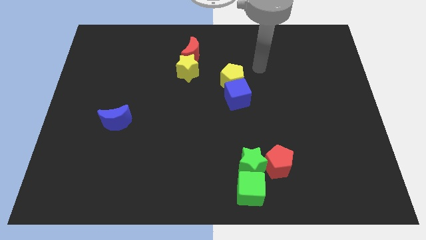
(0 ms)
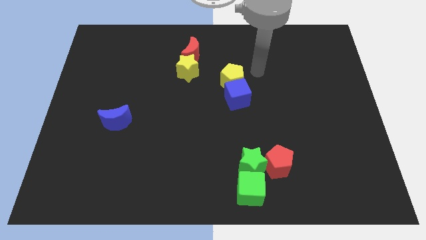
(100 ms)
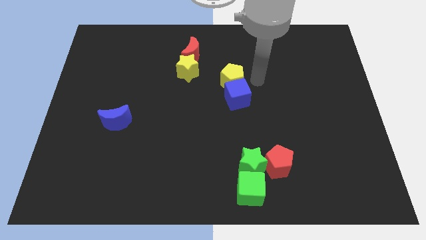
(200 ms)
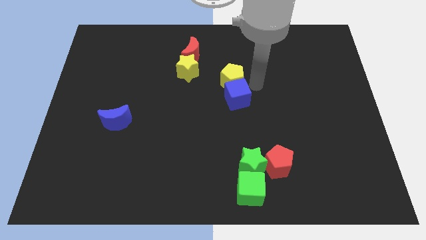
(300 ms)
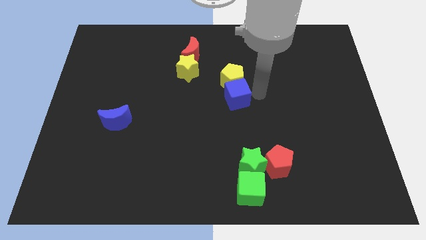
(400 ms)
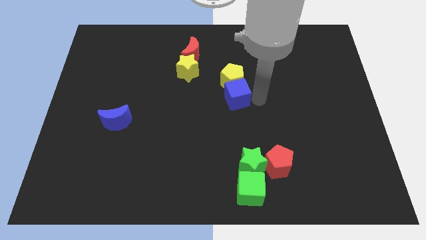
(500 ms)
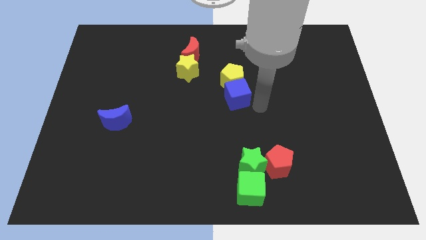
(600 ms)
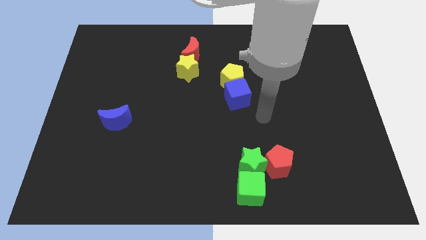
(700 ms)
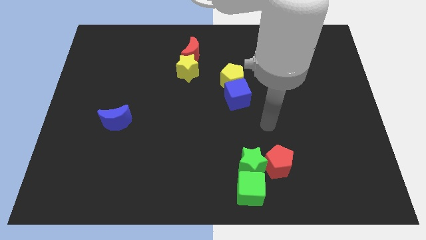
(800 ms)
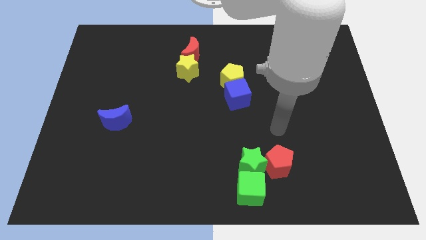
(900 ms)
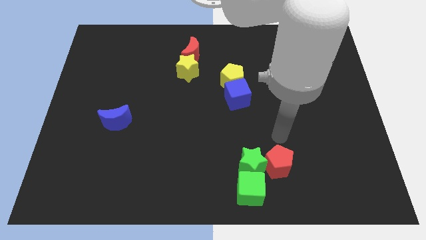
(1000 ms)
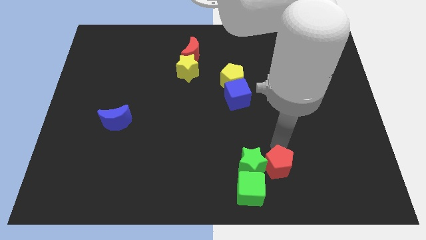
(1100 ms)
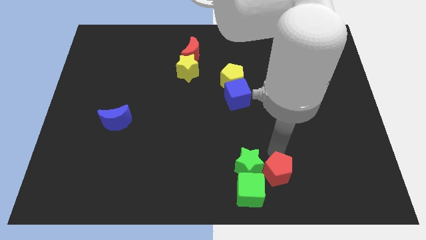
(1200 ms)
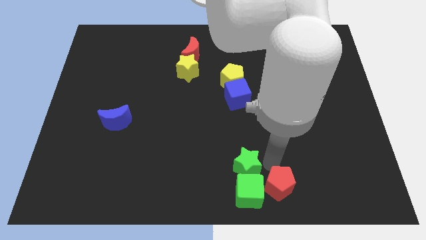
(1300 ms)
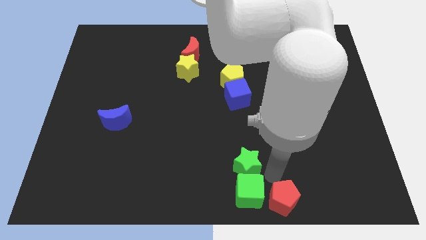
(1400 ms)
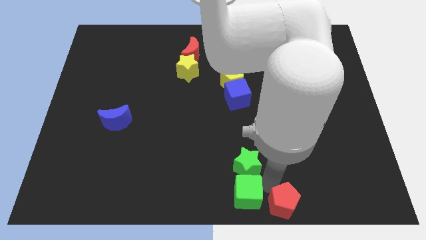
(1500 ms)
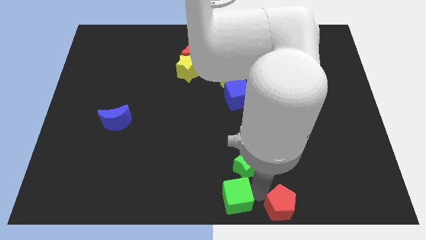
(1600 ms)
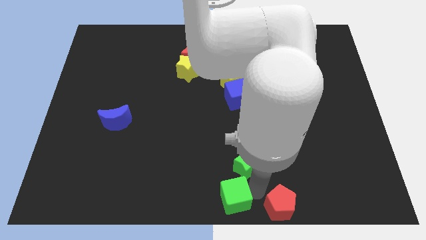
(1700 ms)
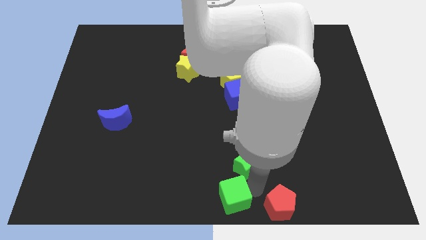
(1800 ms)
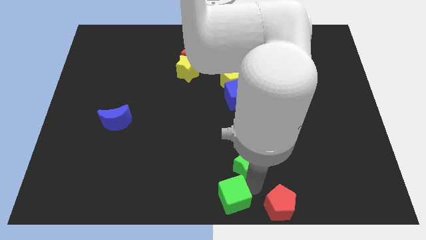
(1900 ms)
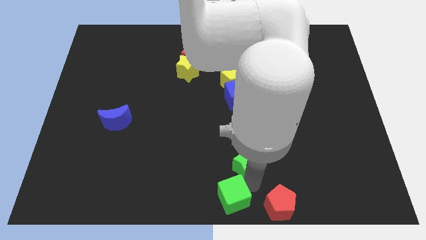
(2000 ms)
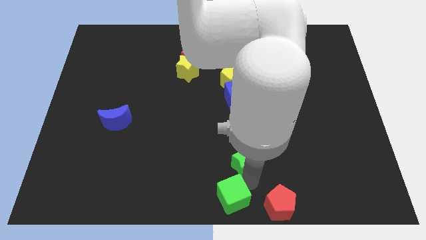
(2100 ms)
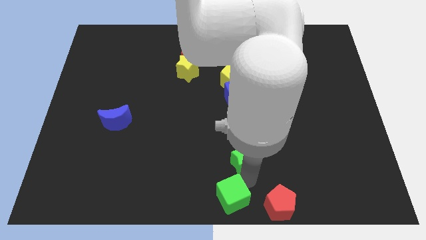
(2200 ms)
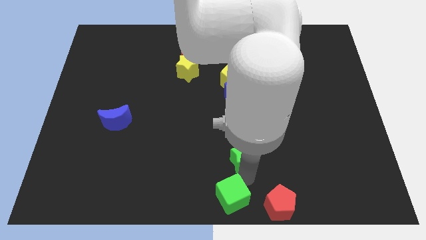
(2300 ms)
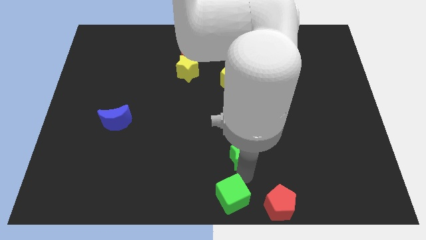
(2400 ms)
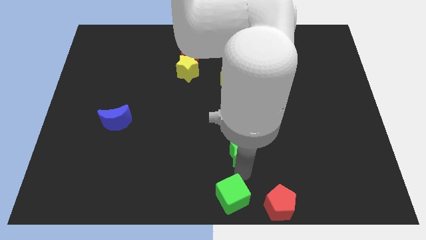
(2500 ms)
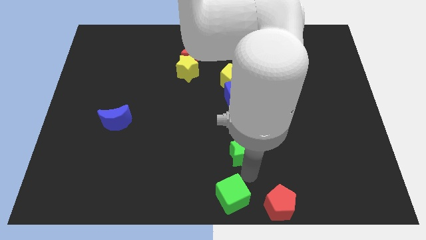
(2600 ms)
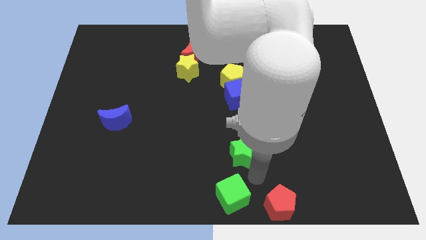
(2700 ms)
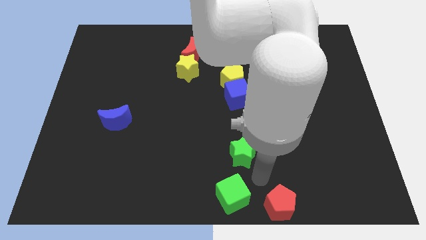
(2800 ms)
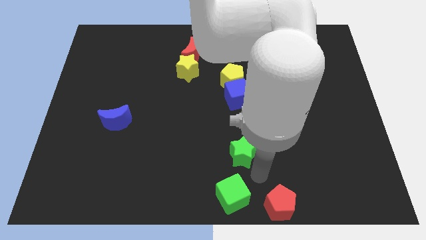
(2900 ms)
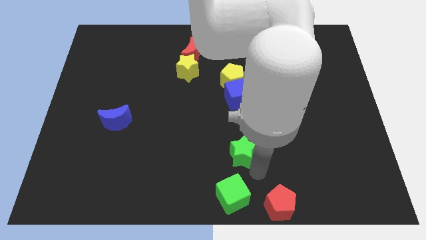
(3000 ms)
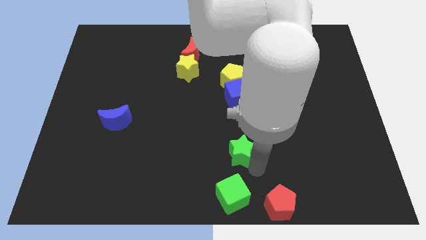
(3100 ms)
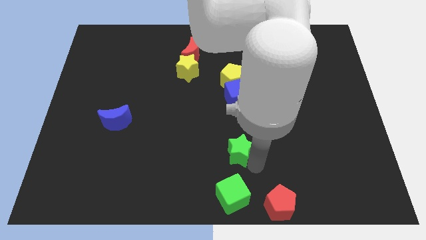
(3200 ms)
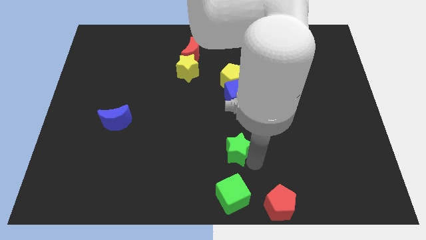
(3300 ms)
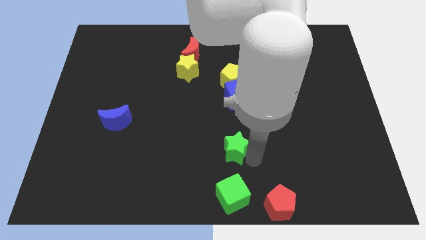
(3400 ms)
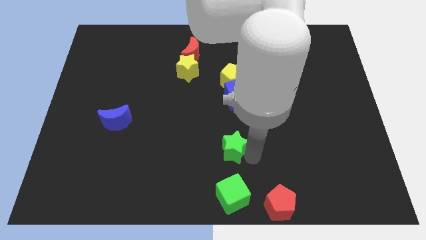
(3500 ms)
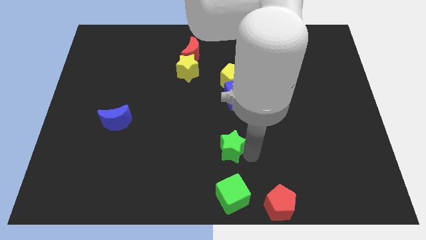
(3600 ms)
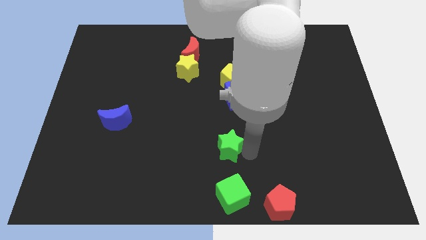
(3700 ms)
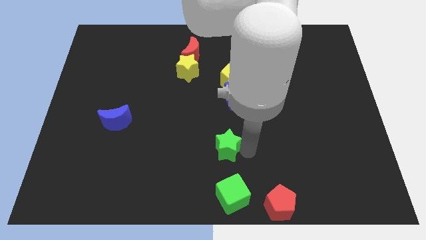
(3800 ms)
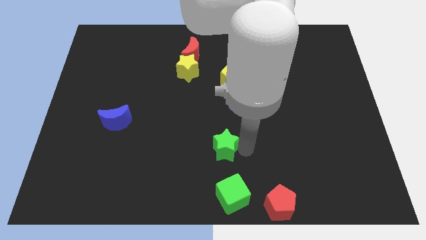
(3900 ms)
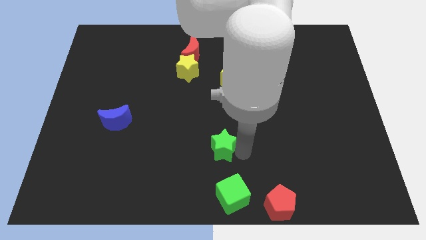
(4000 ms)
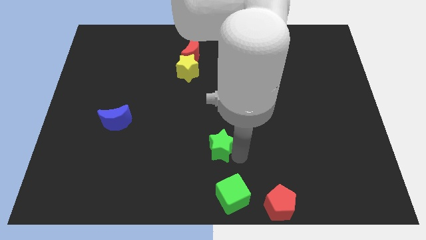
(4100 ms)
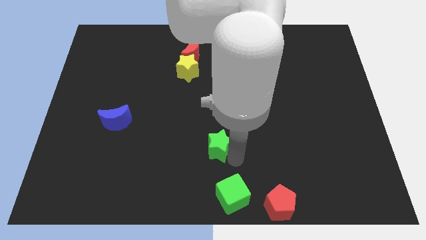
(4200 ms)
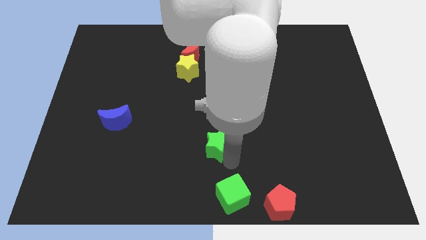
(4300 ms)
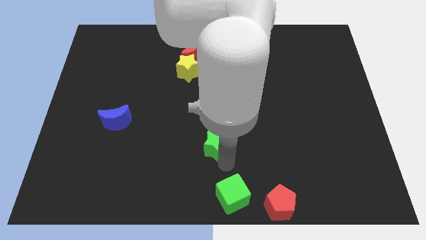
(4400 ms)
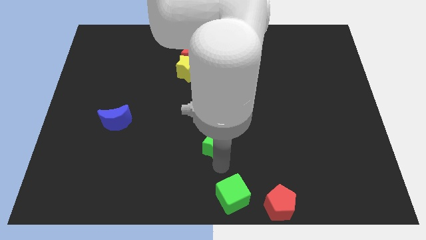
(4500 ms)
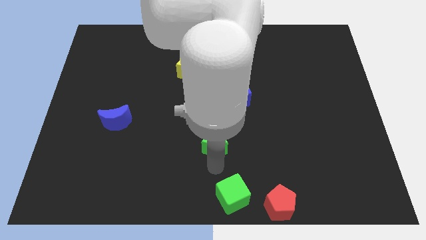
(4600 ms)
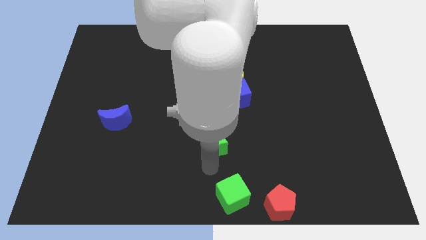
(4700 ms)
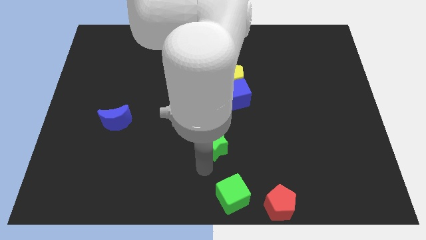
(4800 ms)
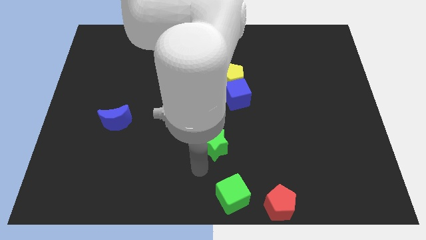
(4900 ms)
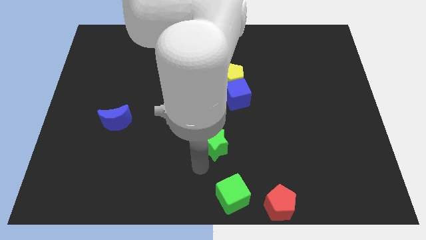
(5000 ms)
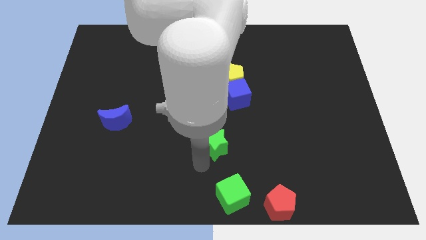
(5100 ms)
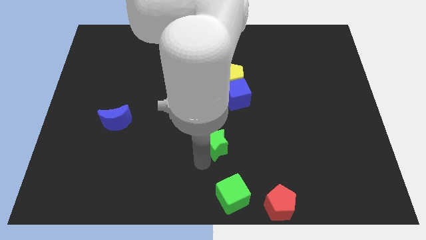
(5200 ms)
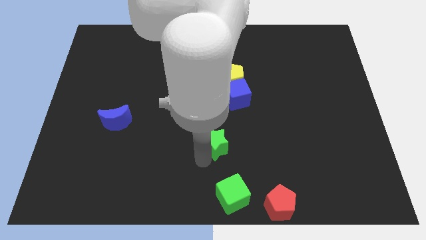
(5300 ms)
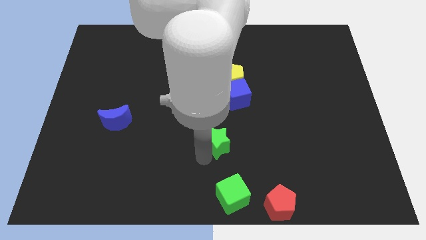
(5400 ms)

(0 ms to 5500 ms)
push the green star to the middle of the board

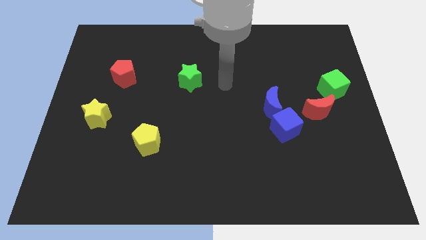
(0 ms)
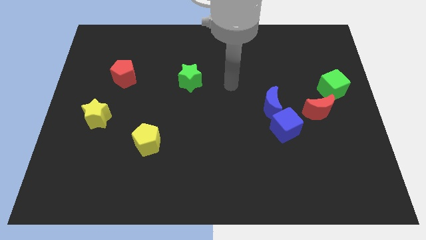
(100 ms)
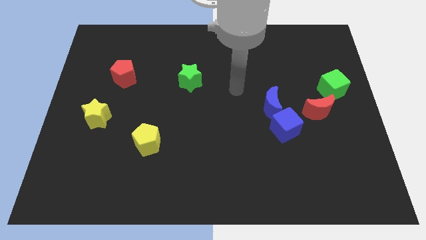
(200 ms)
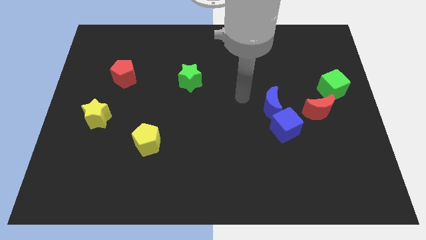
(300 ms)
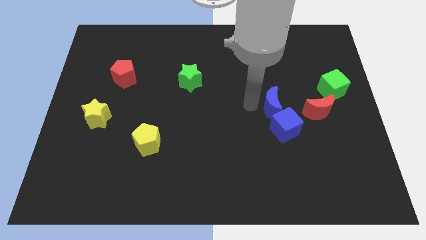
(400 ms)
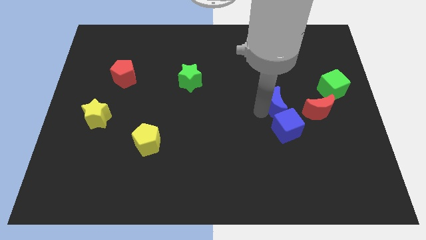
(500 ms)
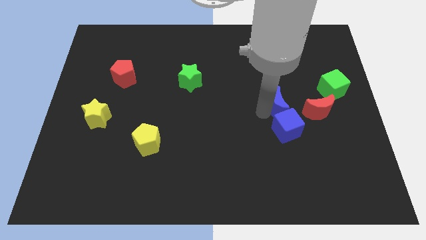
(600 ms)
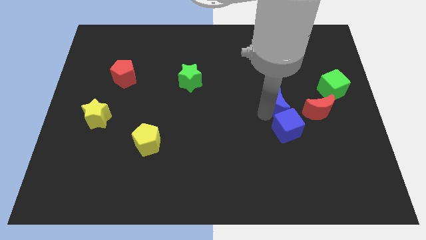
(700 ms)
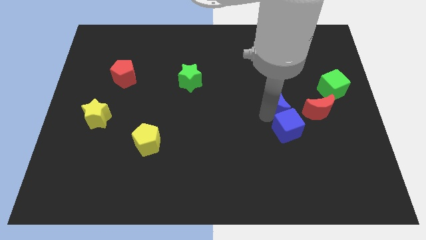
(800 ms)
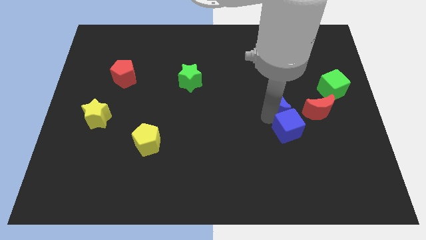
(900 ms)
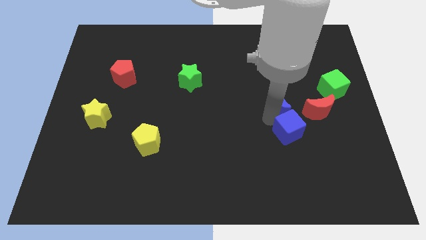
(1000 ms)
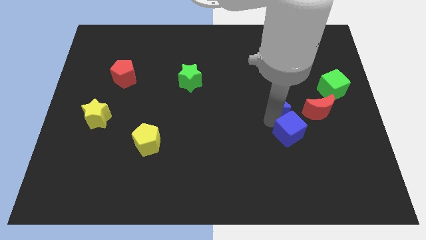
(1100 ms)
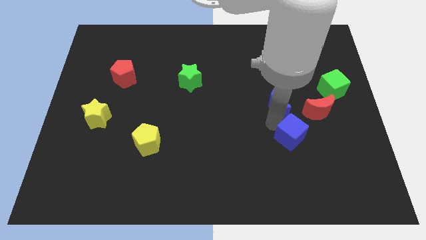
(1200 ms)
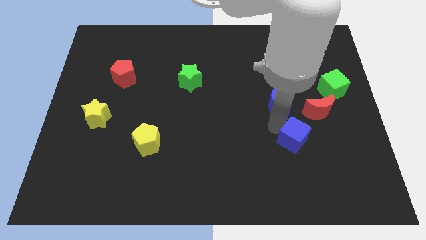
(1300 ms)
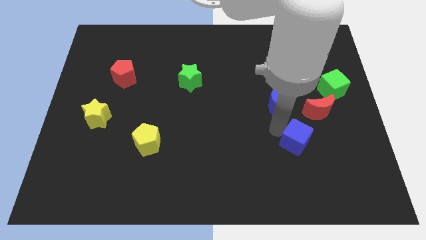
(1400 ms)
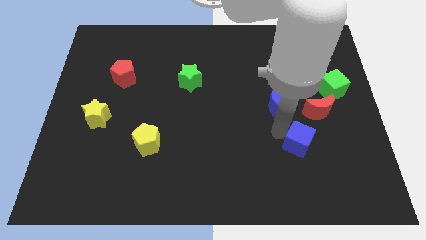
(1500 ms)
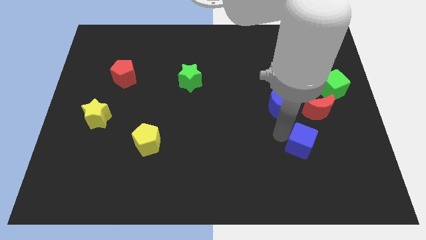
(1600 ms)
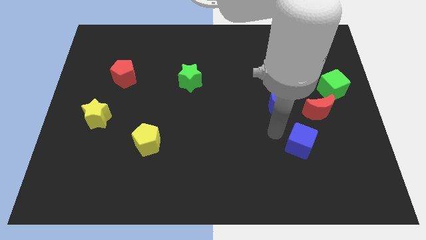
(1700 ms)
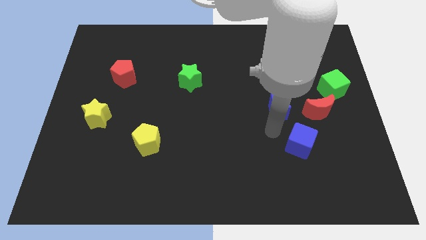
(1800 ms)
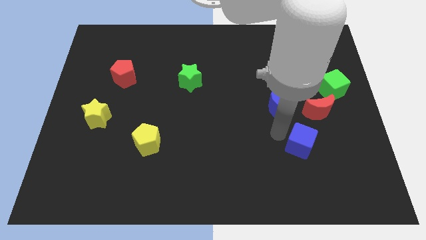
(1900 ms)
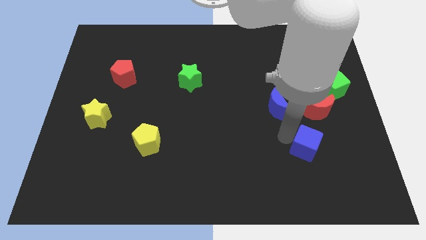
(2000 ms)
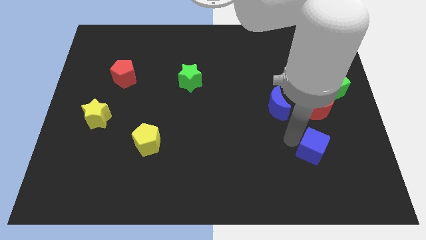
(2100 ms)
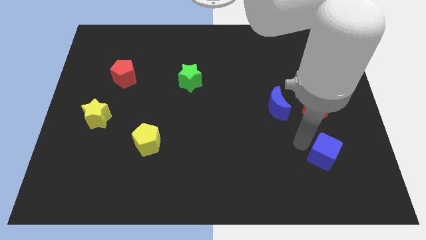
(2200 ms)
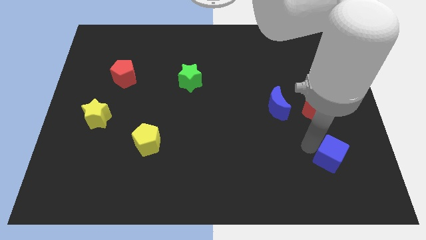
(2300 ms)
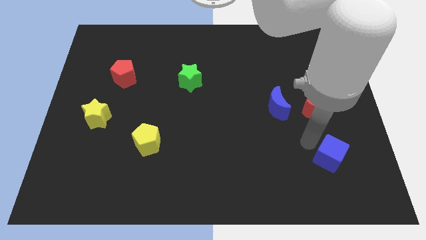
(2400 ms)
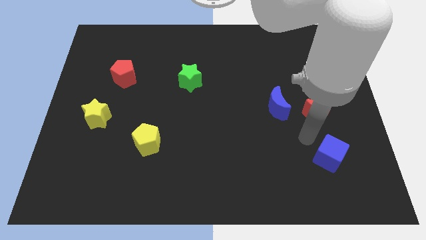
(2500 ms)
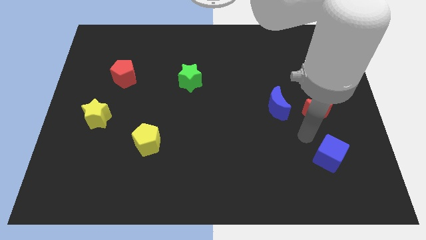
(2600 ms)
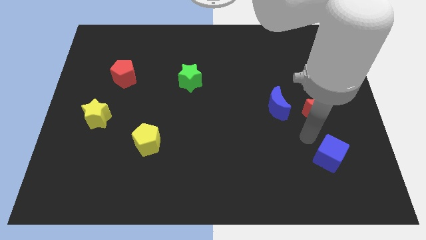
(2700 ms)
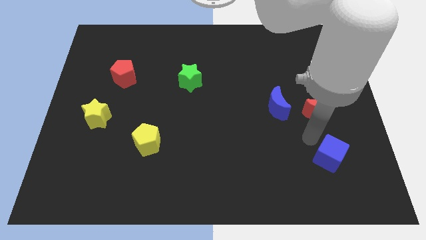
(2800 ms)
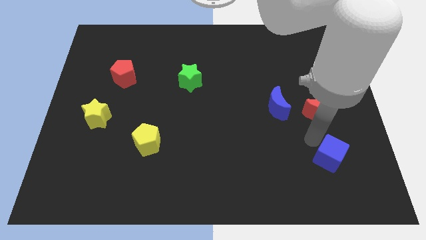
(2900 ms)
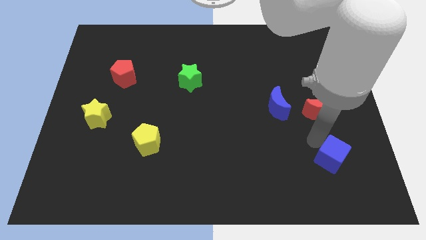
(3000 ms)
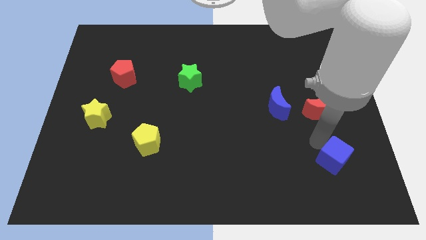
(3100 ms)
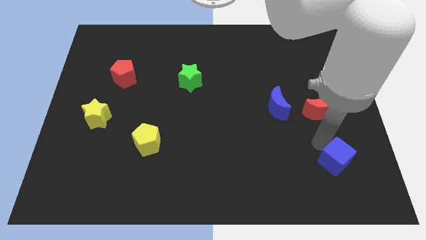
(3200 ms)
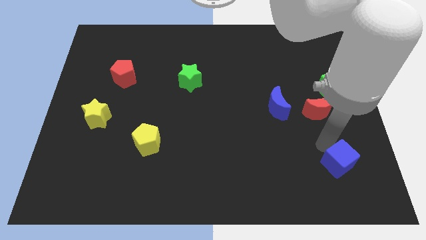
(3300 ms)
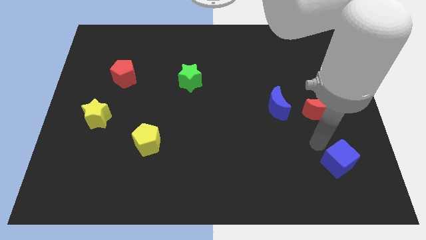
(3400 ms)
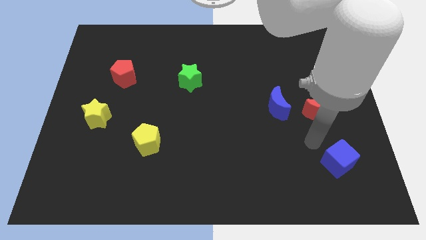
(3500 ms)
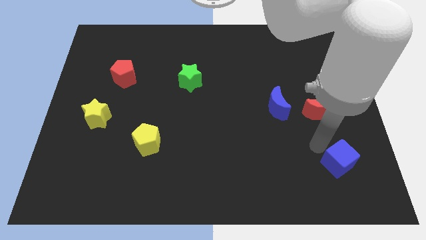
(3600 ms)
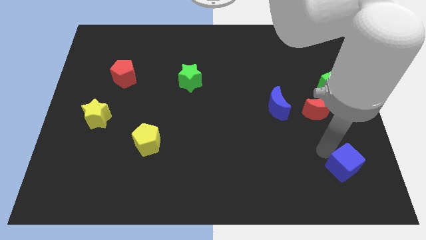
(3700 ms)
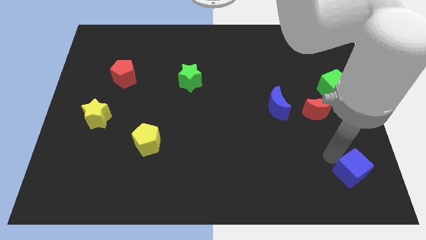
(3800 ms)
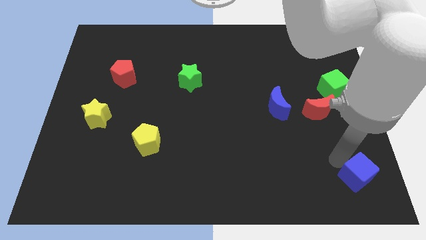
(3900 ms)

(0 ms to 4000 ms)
slide the blue cube to the bottom right
